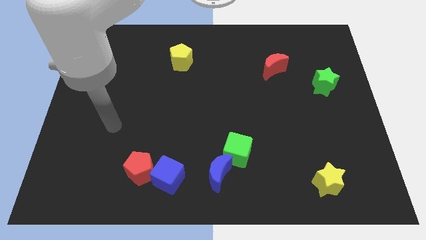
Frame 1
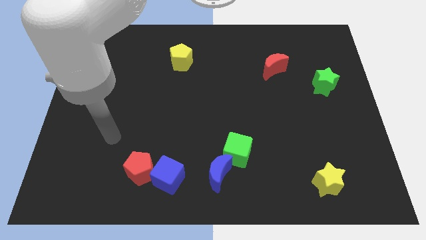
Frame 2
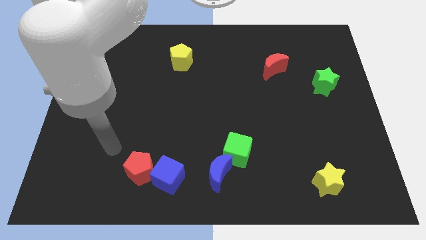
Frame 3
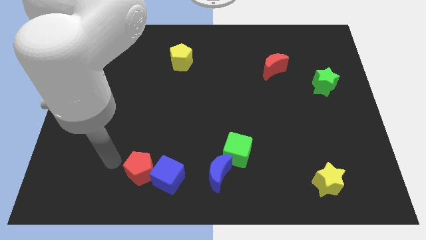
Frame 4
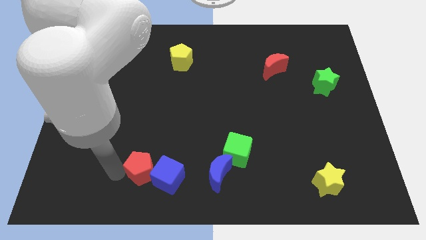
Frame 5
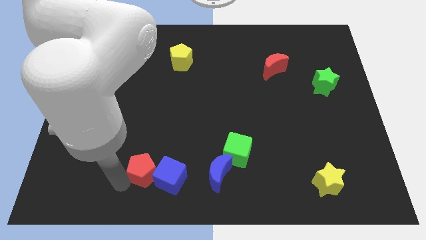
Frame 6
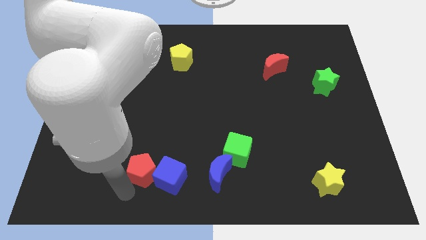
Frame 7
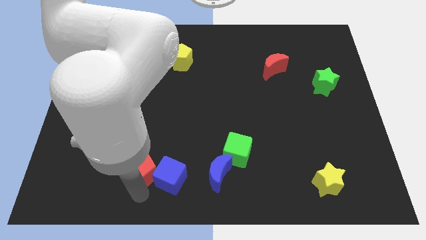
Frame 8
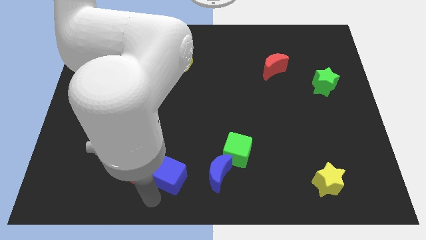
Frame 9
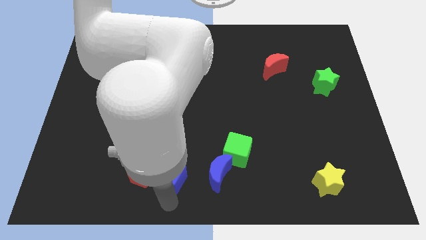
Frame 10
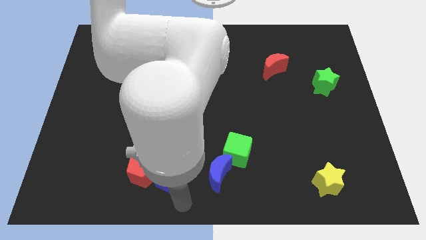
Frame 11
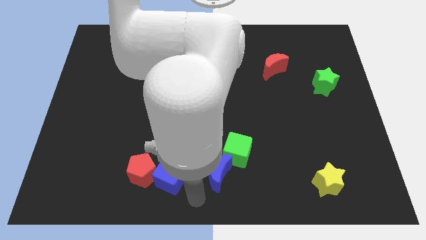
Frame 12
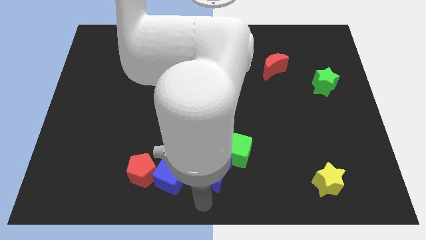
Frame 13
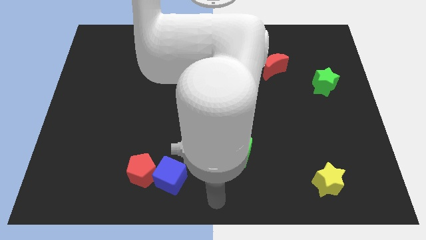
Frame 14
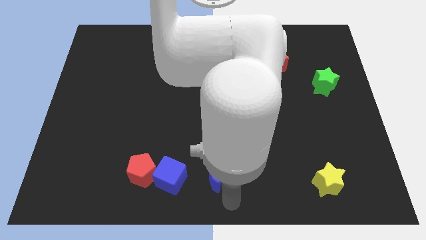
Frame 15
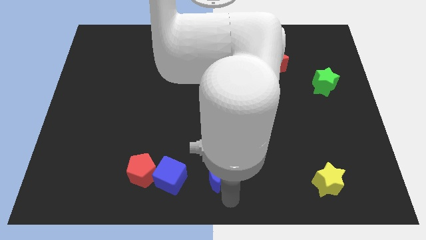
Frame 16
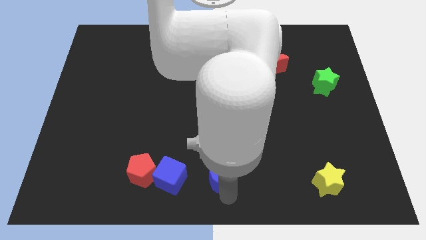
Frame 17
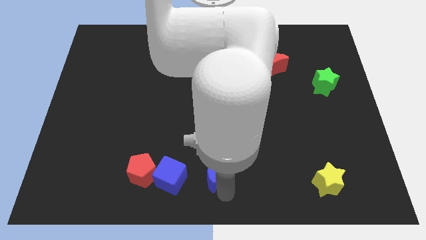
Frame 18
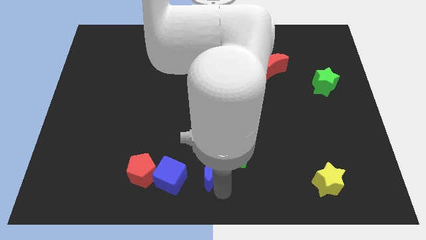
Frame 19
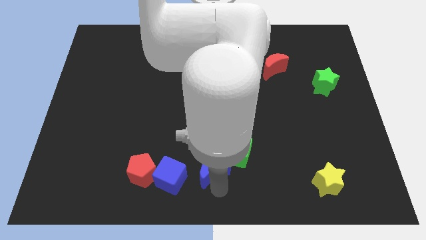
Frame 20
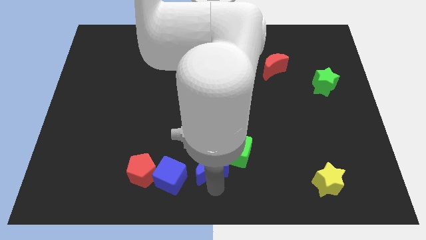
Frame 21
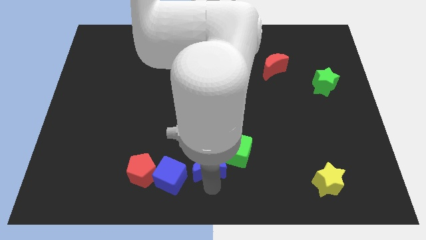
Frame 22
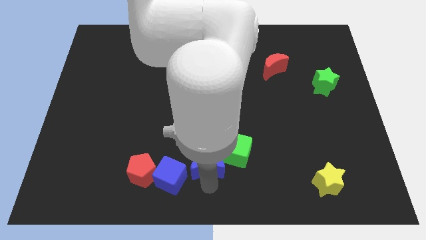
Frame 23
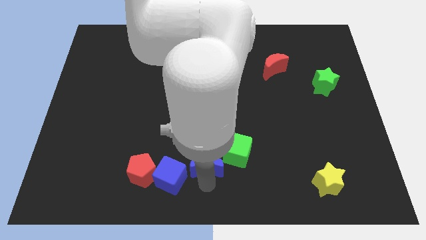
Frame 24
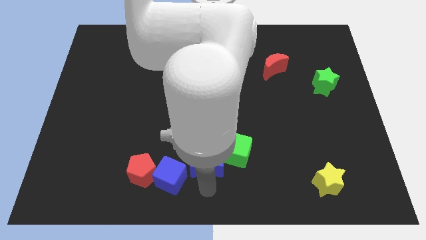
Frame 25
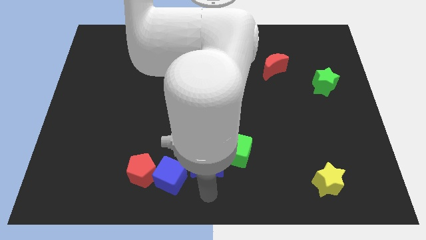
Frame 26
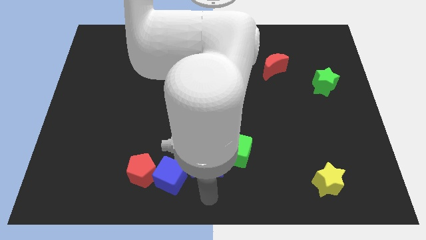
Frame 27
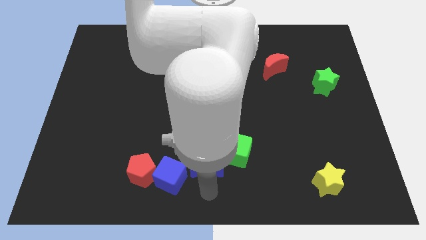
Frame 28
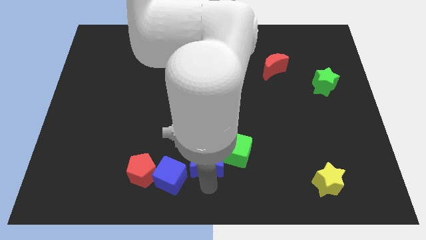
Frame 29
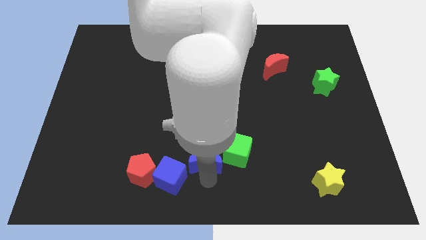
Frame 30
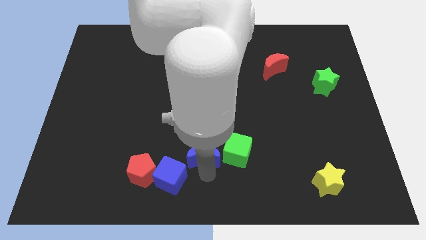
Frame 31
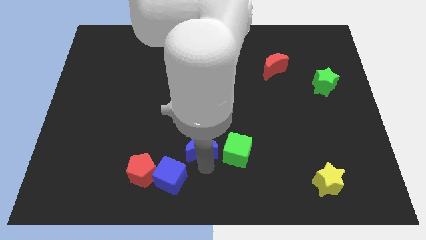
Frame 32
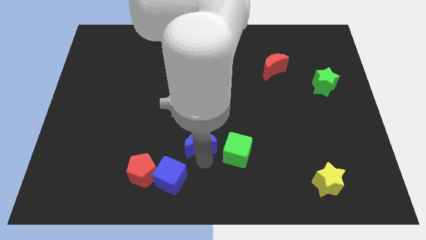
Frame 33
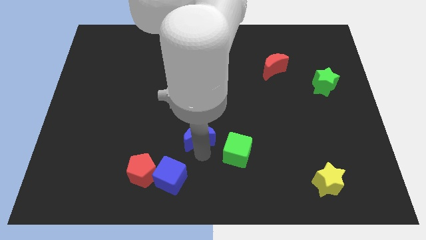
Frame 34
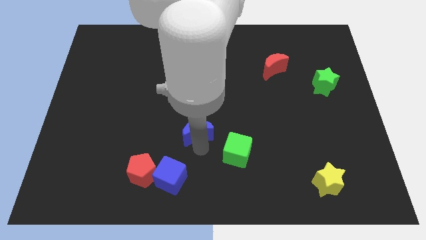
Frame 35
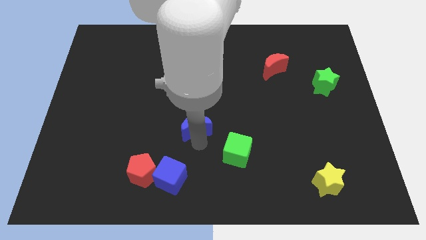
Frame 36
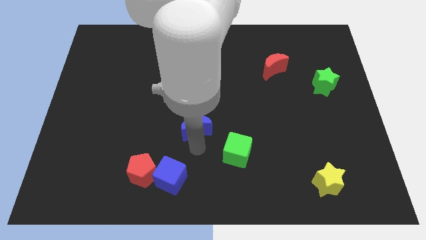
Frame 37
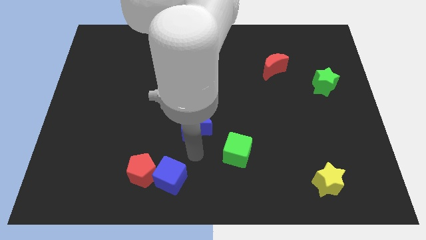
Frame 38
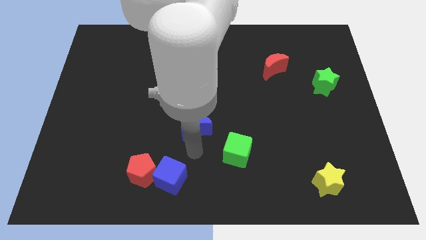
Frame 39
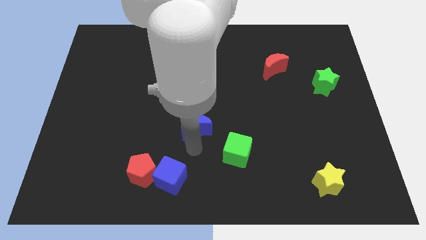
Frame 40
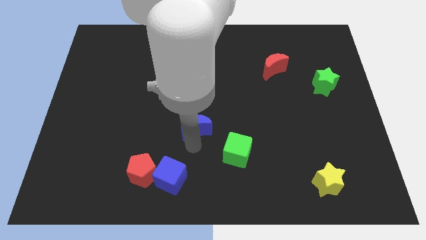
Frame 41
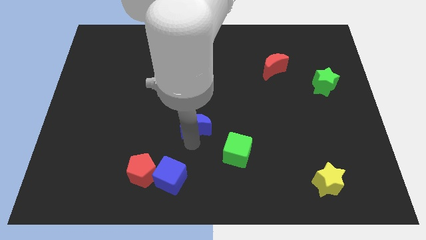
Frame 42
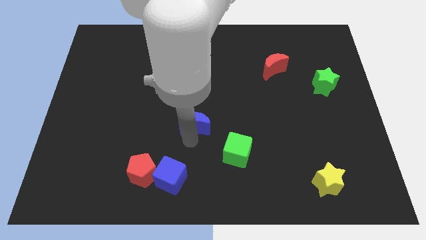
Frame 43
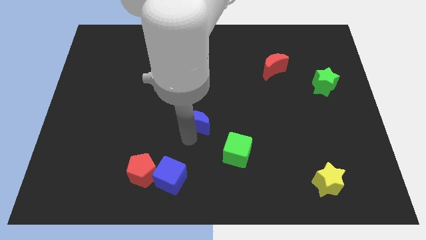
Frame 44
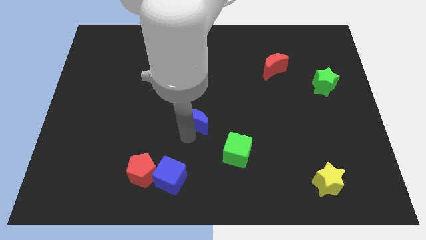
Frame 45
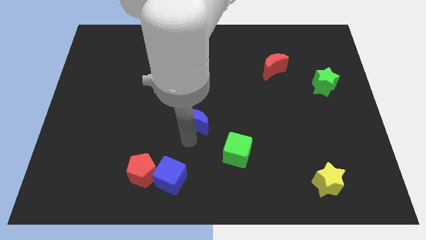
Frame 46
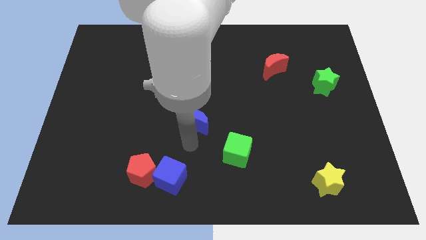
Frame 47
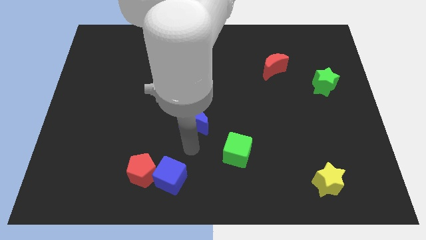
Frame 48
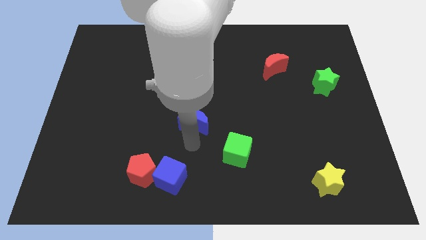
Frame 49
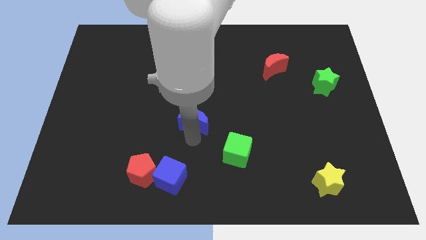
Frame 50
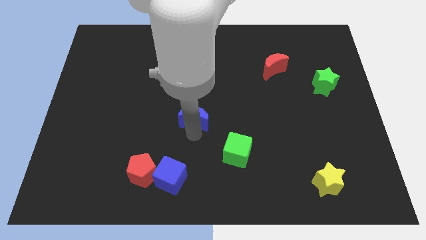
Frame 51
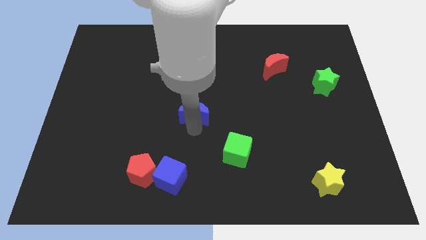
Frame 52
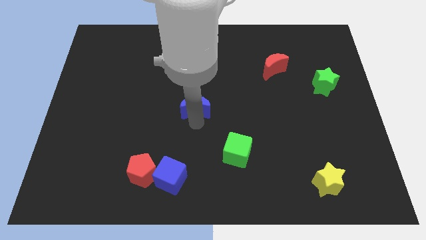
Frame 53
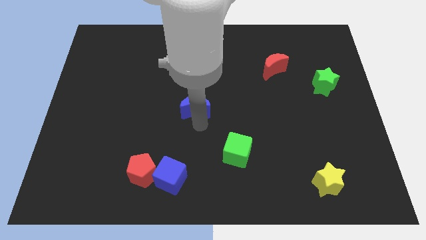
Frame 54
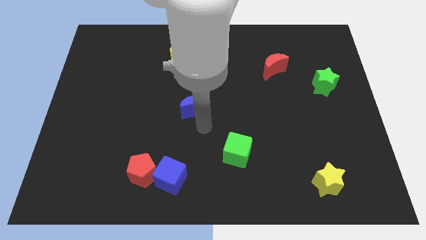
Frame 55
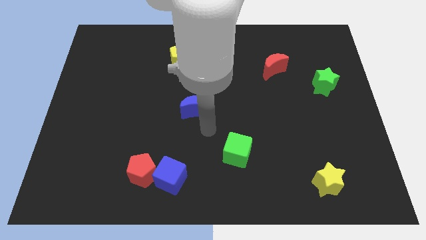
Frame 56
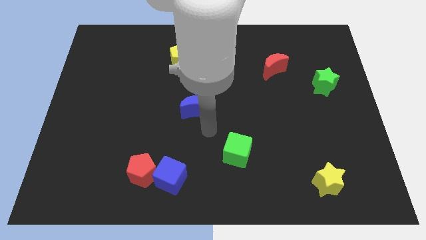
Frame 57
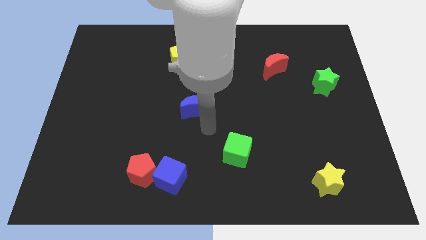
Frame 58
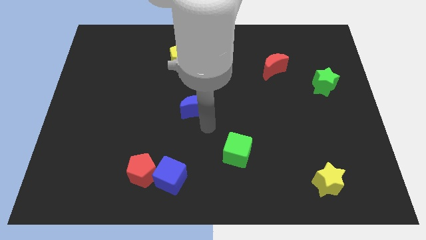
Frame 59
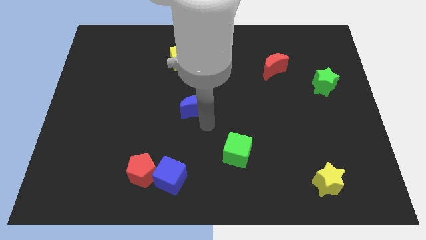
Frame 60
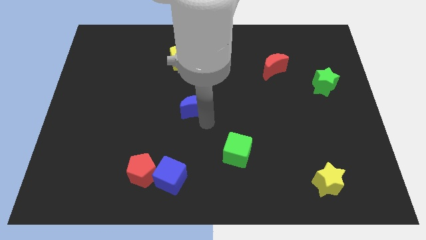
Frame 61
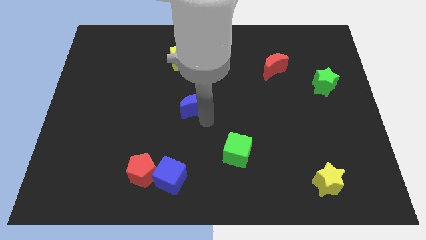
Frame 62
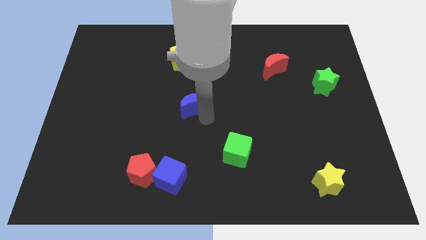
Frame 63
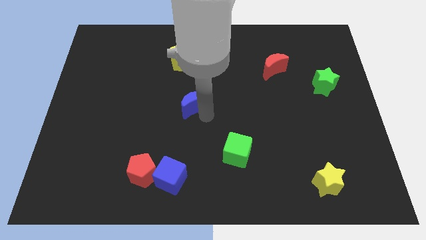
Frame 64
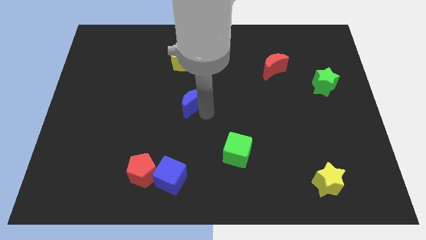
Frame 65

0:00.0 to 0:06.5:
slide the blue moon to the bottom side of the yellow pentagon
